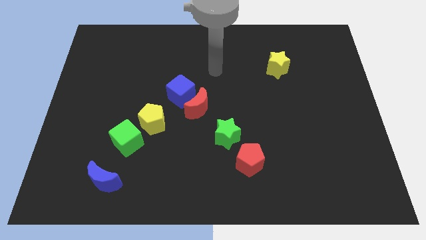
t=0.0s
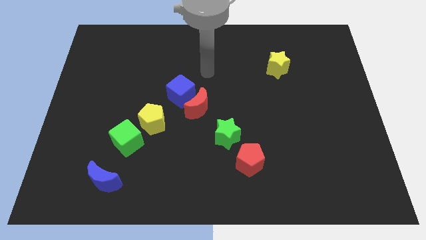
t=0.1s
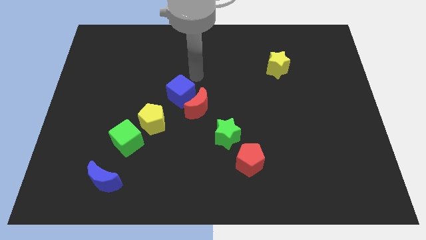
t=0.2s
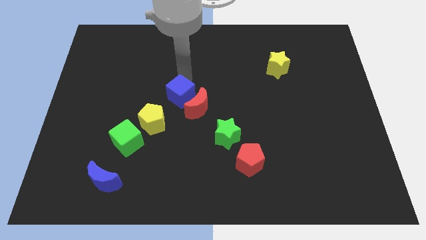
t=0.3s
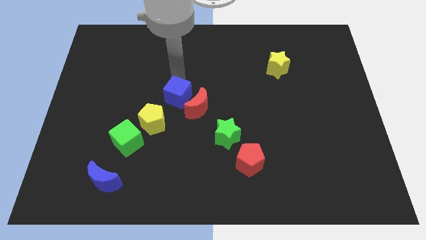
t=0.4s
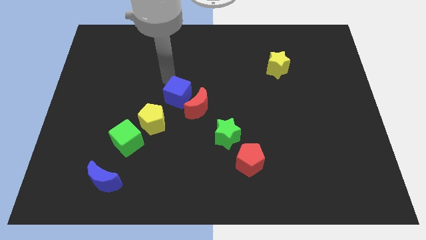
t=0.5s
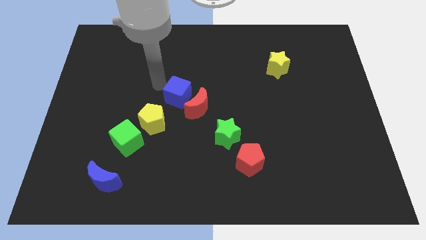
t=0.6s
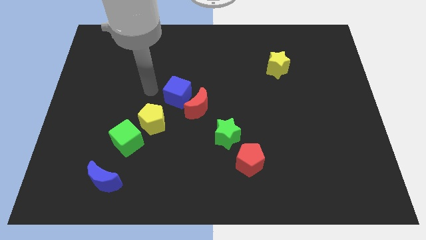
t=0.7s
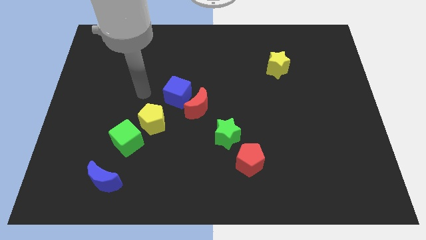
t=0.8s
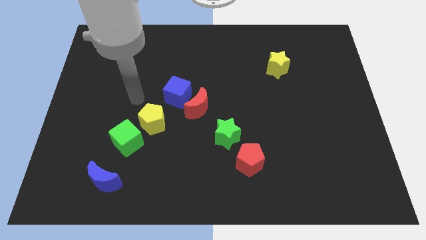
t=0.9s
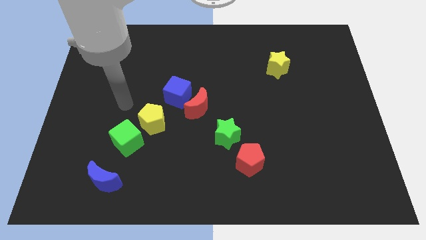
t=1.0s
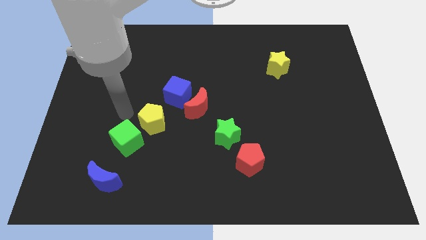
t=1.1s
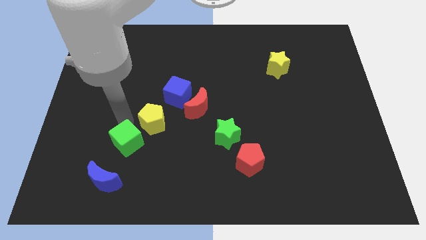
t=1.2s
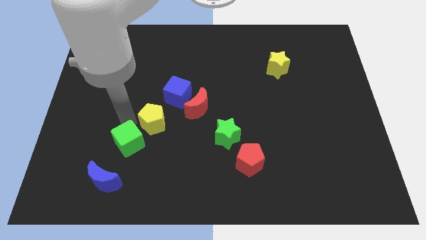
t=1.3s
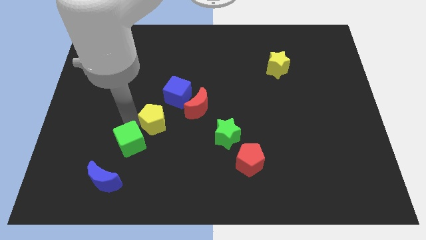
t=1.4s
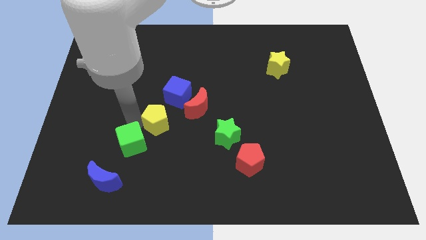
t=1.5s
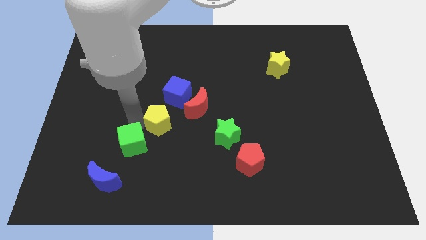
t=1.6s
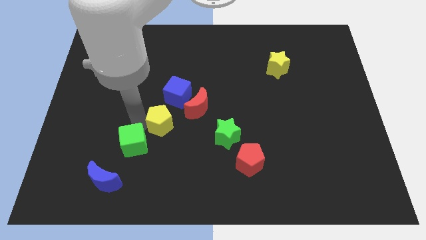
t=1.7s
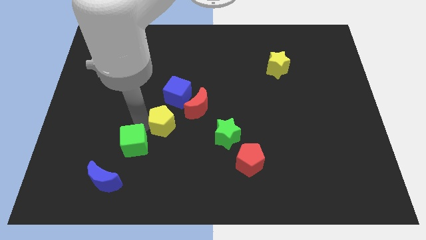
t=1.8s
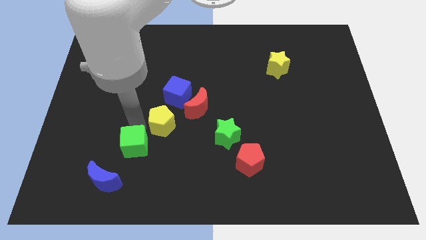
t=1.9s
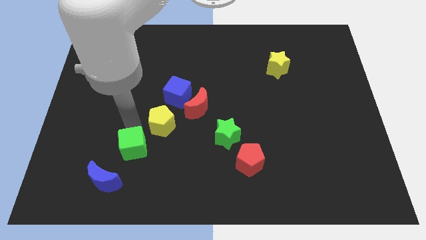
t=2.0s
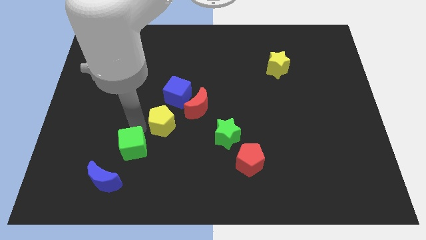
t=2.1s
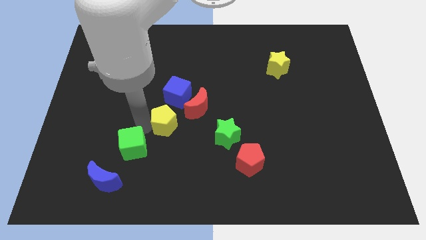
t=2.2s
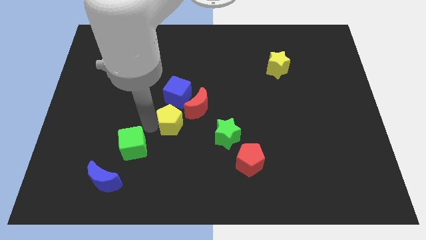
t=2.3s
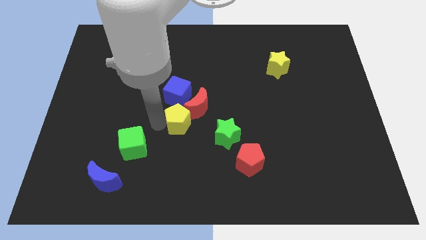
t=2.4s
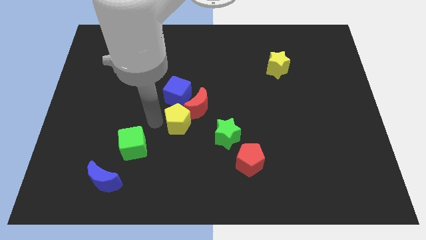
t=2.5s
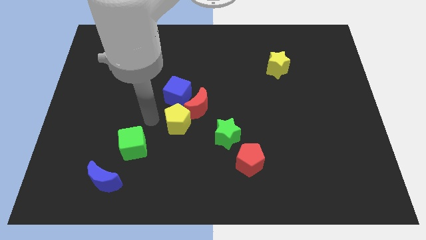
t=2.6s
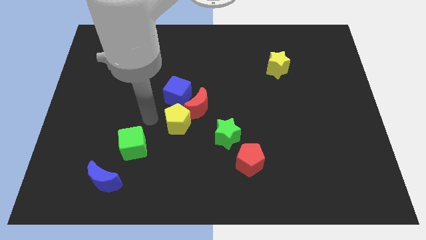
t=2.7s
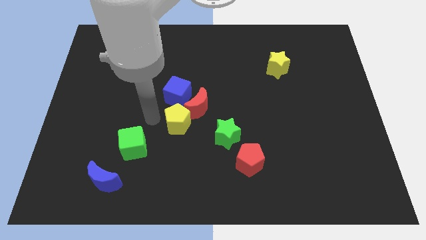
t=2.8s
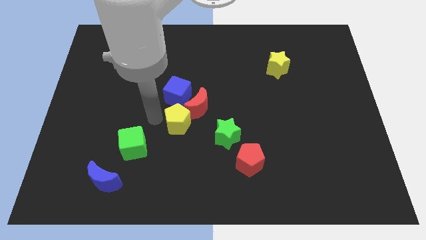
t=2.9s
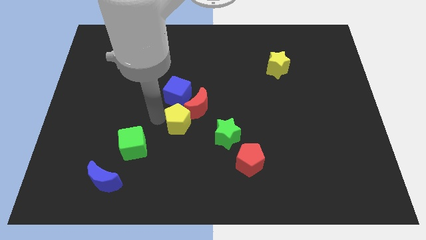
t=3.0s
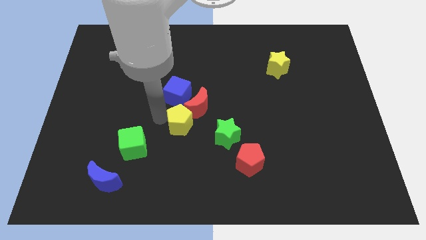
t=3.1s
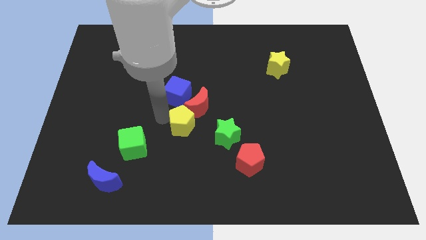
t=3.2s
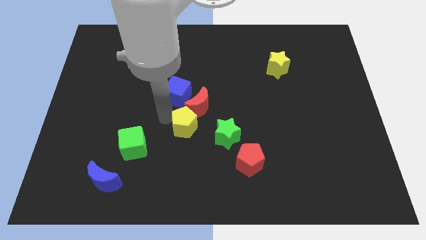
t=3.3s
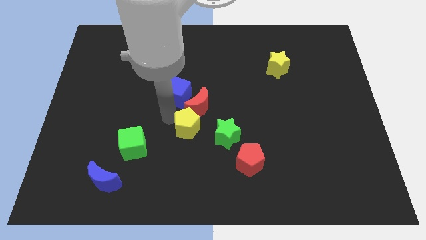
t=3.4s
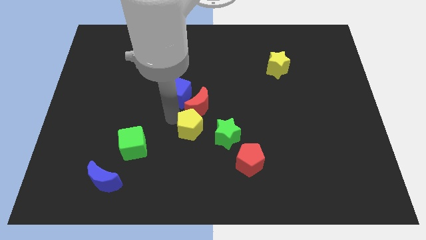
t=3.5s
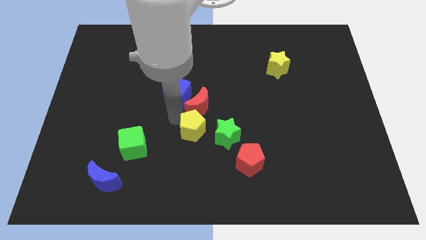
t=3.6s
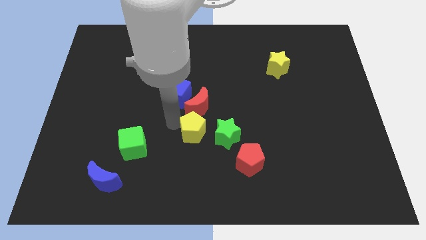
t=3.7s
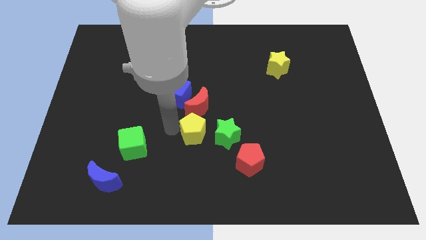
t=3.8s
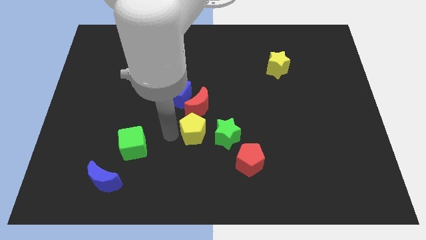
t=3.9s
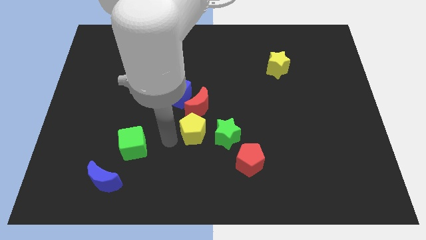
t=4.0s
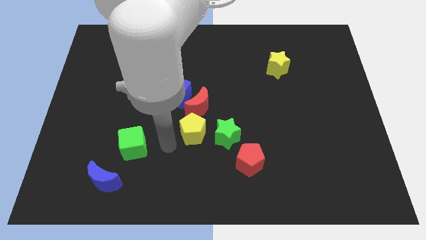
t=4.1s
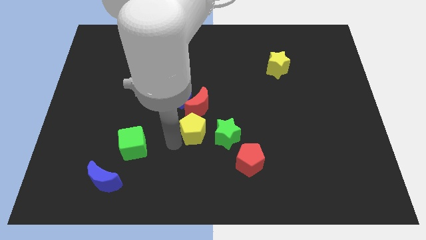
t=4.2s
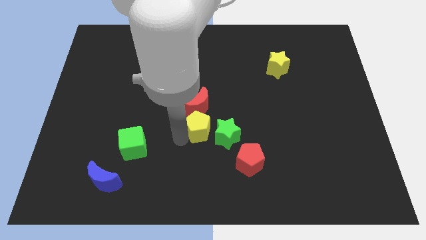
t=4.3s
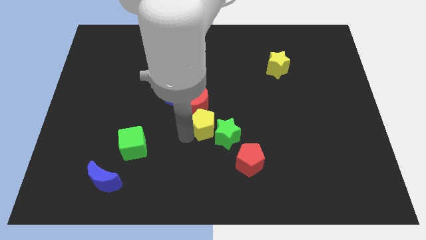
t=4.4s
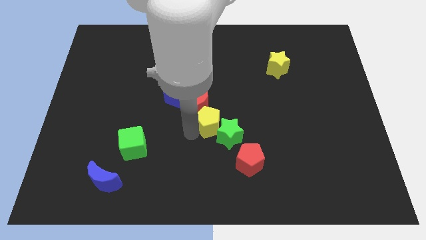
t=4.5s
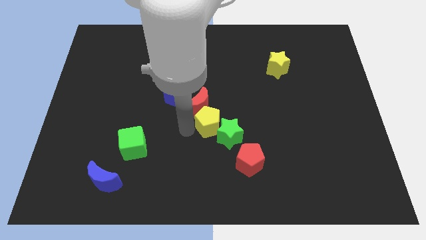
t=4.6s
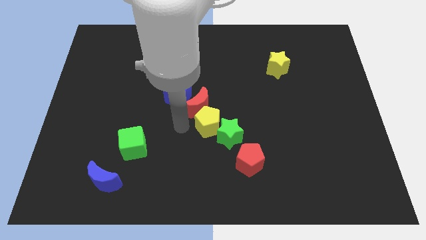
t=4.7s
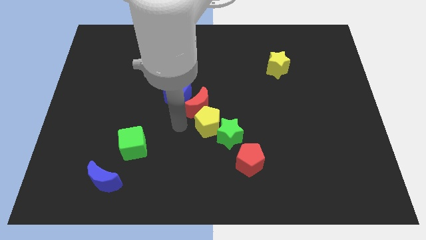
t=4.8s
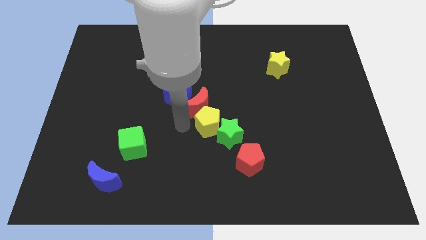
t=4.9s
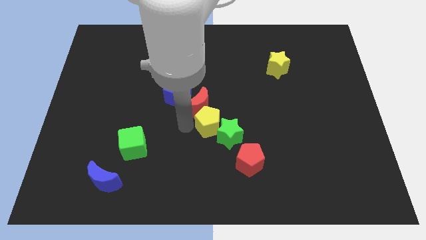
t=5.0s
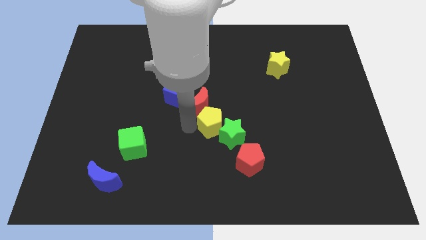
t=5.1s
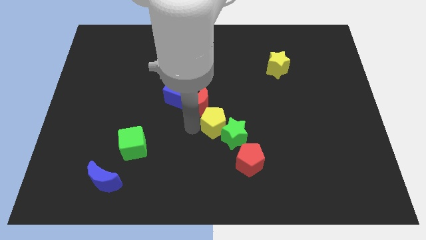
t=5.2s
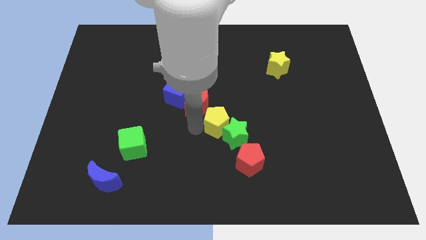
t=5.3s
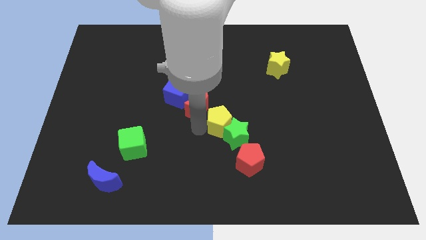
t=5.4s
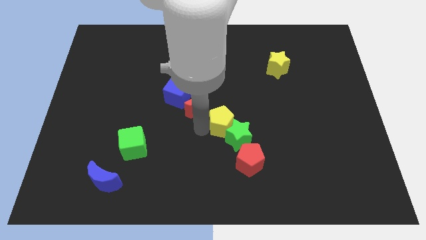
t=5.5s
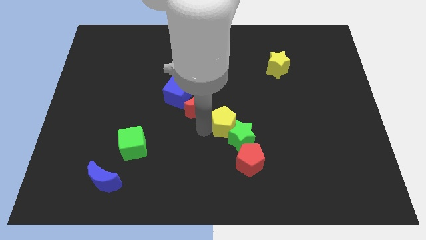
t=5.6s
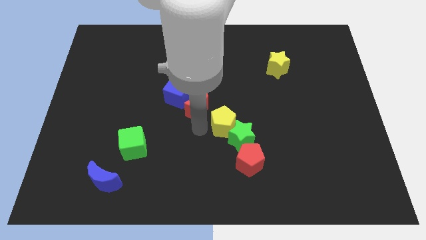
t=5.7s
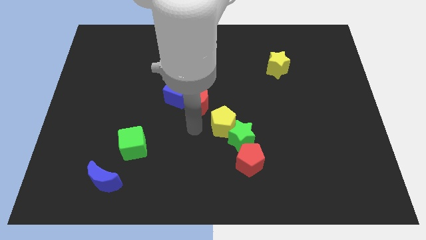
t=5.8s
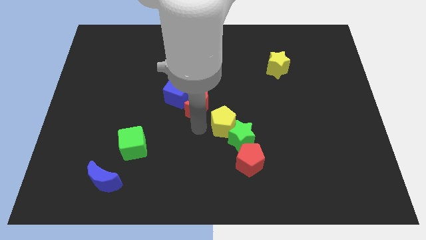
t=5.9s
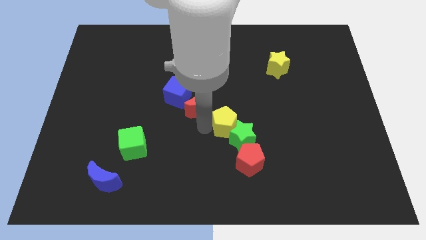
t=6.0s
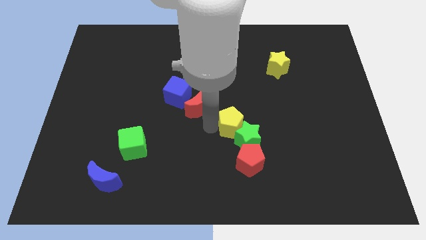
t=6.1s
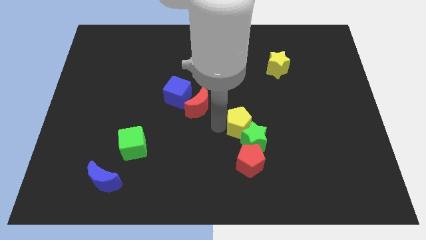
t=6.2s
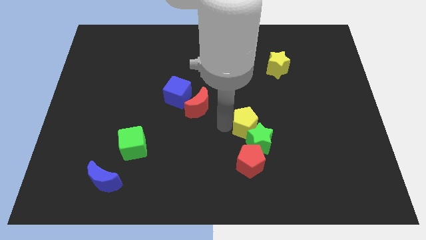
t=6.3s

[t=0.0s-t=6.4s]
slide the yellow pentagon to the right

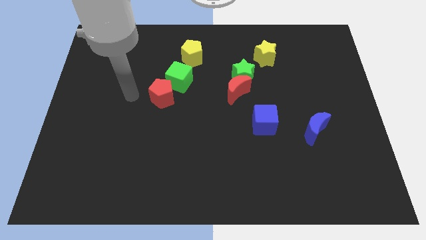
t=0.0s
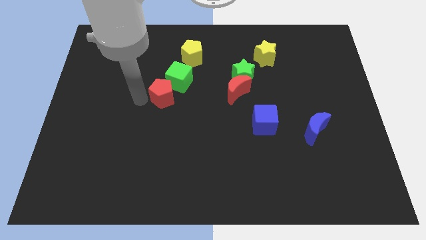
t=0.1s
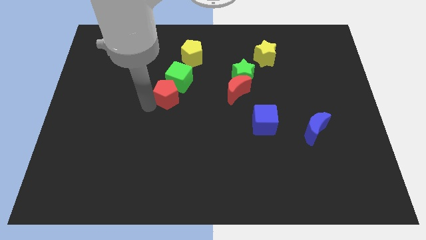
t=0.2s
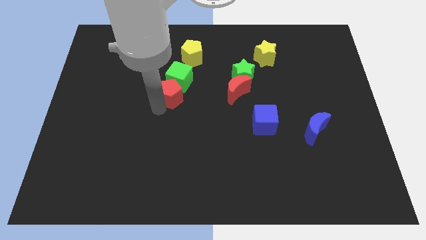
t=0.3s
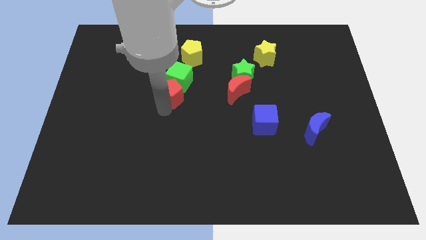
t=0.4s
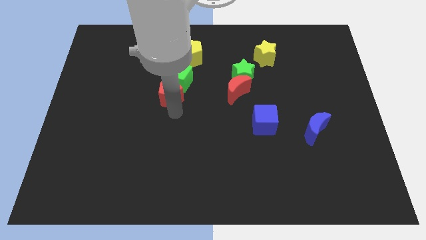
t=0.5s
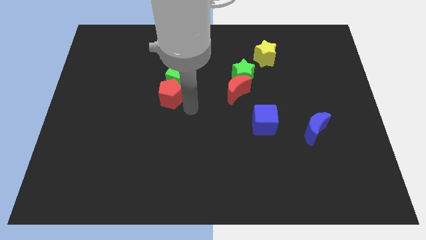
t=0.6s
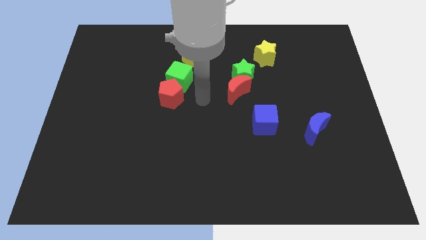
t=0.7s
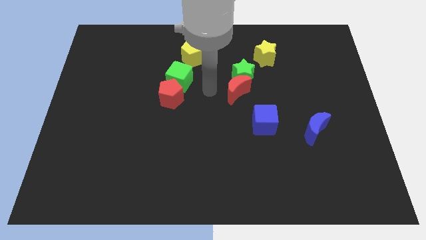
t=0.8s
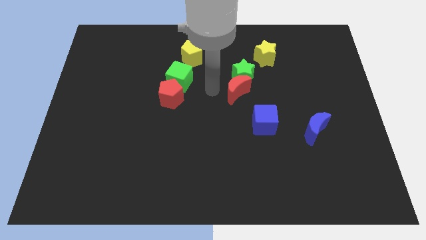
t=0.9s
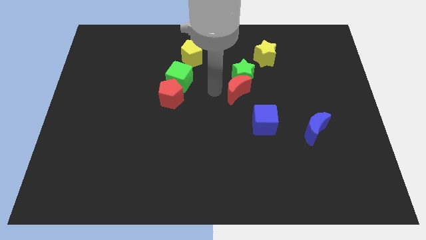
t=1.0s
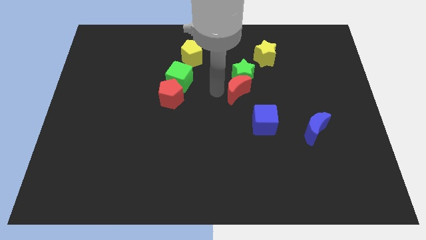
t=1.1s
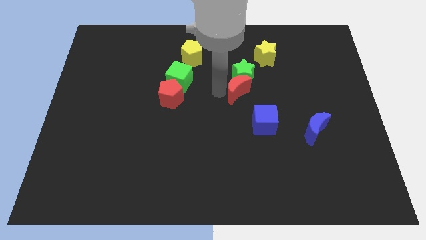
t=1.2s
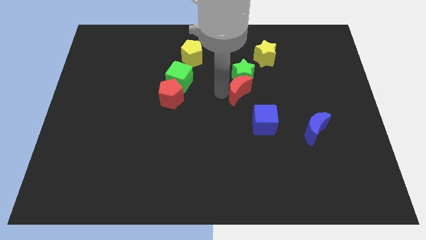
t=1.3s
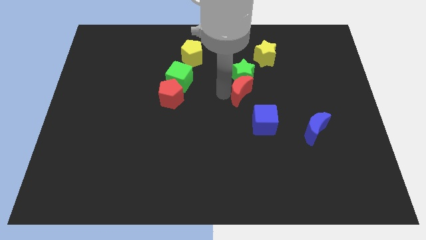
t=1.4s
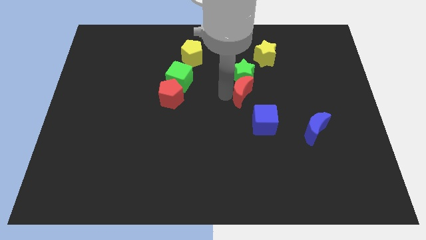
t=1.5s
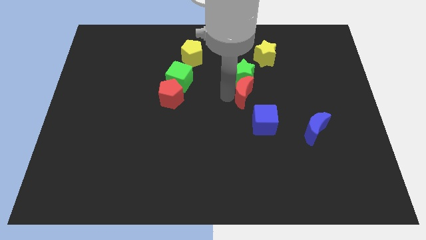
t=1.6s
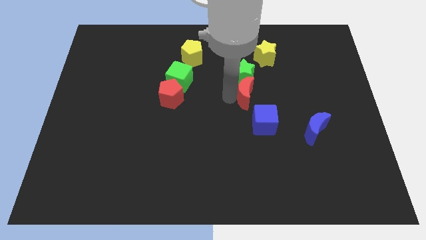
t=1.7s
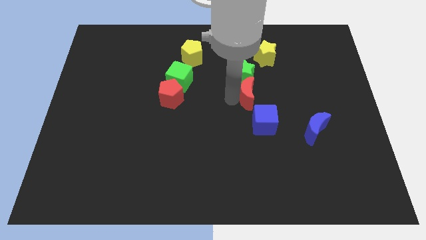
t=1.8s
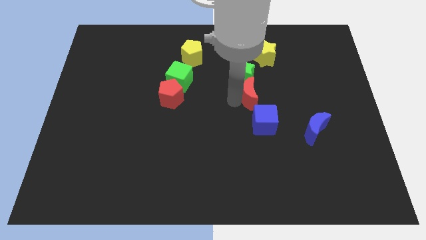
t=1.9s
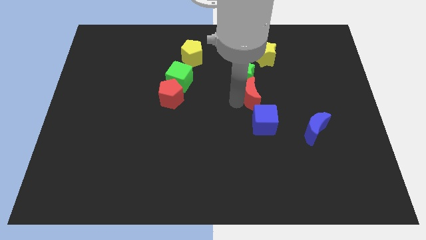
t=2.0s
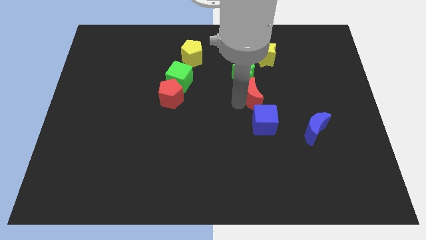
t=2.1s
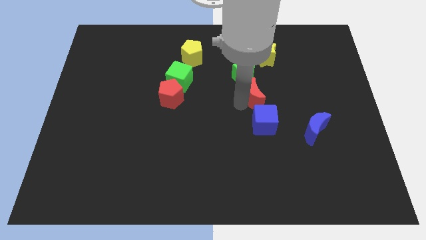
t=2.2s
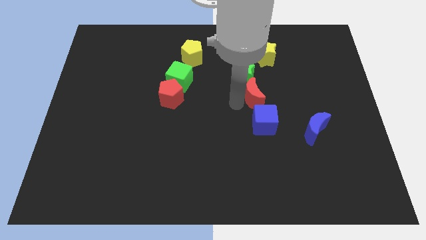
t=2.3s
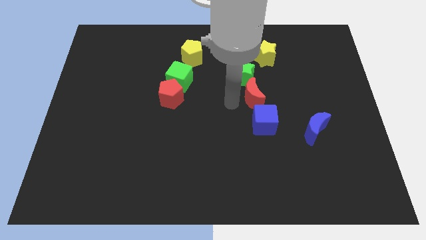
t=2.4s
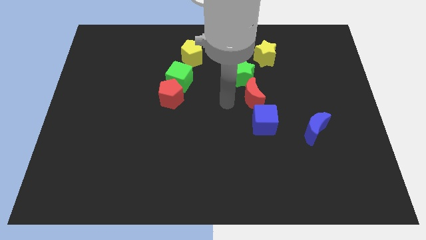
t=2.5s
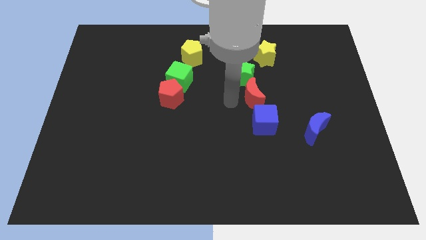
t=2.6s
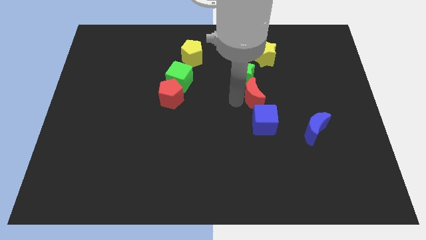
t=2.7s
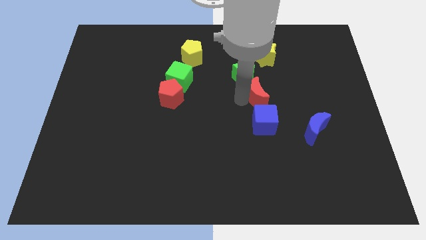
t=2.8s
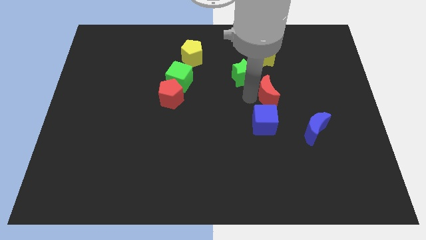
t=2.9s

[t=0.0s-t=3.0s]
move the red moon slightly to the right
